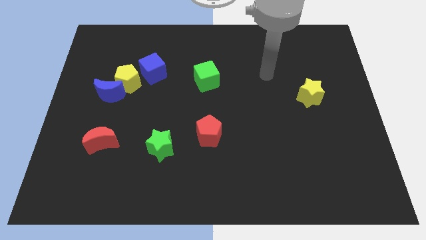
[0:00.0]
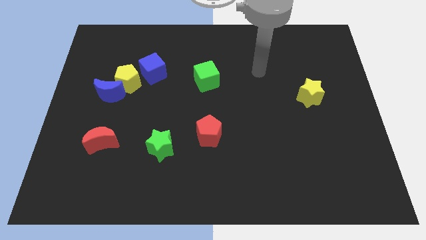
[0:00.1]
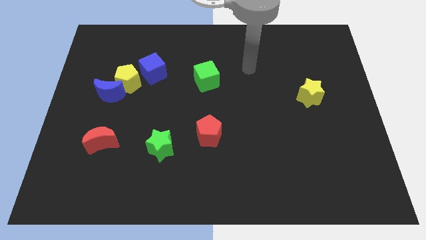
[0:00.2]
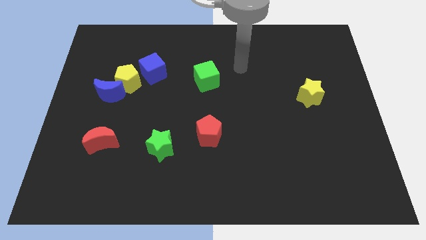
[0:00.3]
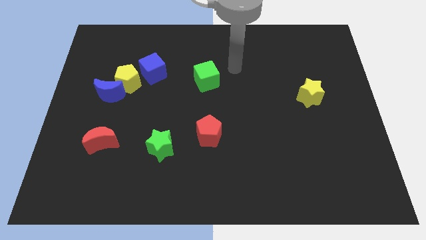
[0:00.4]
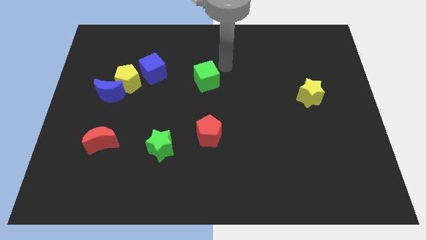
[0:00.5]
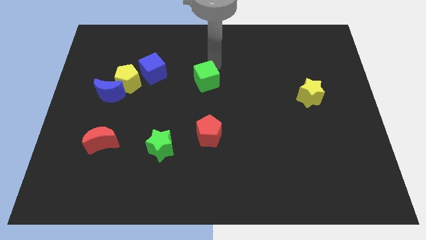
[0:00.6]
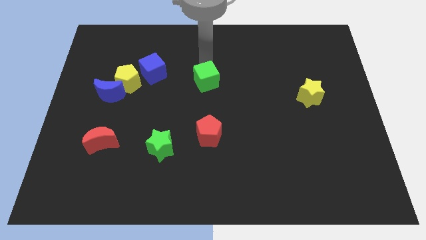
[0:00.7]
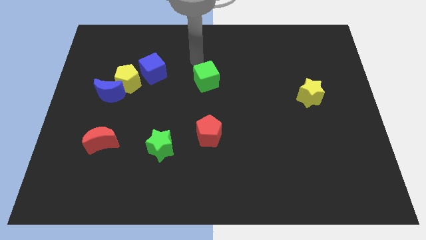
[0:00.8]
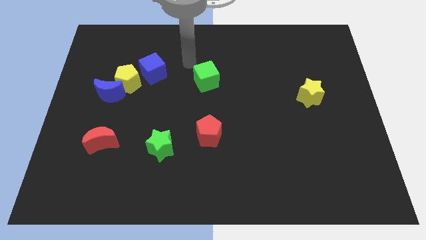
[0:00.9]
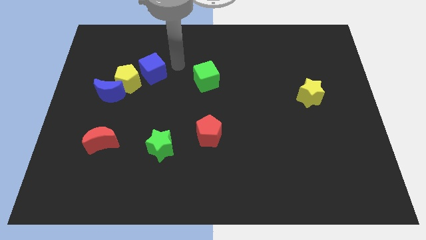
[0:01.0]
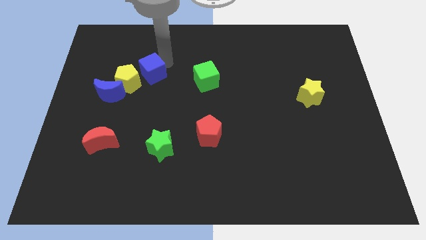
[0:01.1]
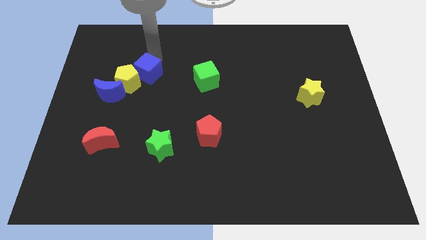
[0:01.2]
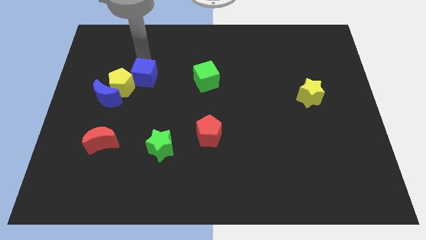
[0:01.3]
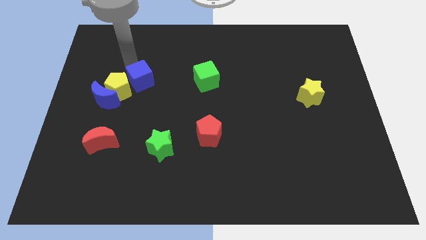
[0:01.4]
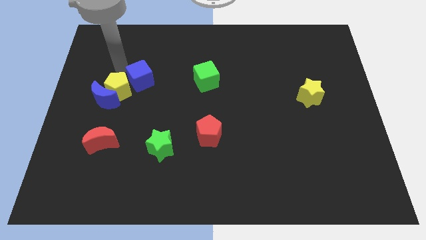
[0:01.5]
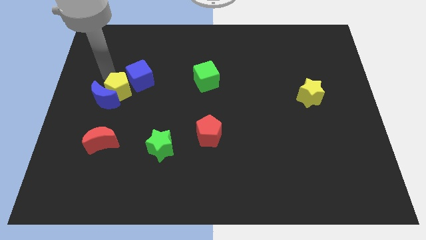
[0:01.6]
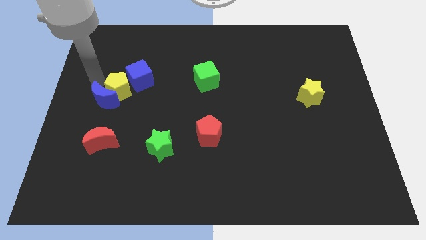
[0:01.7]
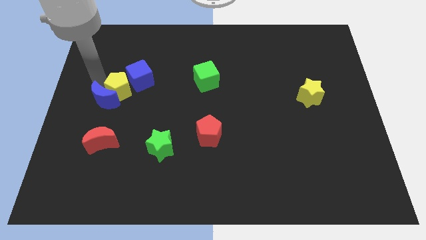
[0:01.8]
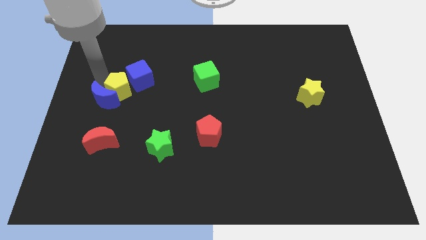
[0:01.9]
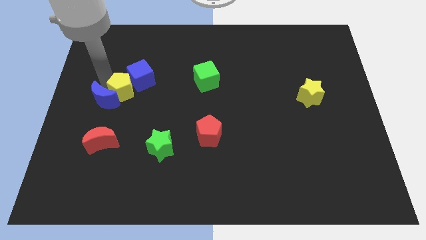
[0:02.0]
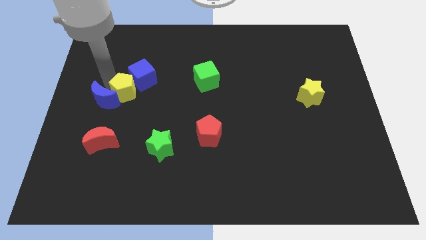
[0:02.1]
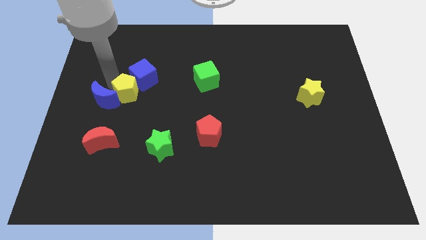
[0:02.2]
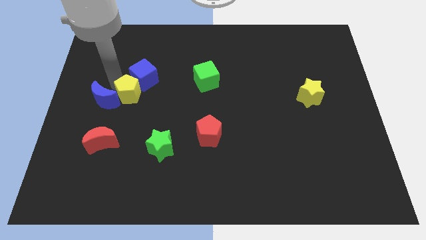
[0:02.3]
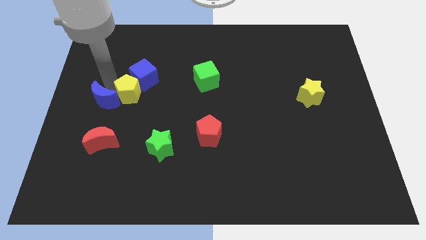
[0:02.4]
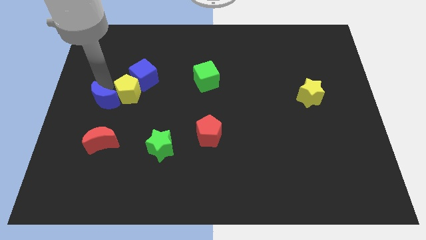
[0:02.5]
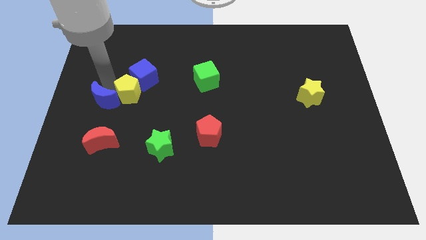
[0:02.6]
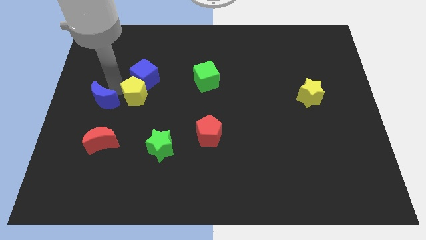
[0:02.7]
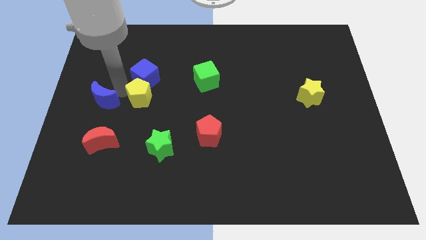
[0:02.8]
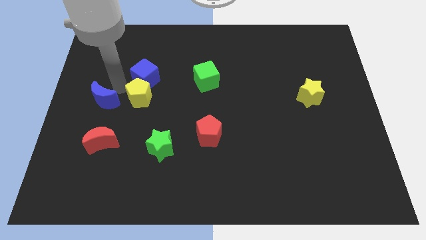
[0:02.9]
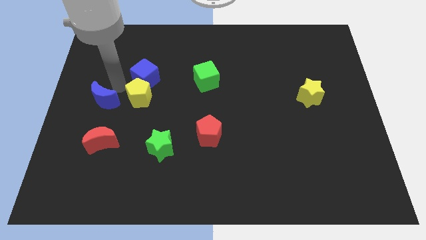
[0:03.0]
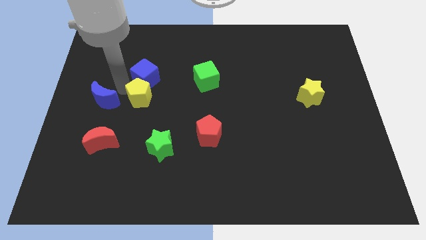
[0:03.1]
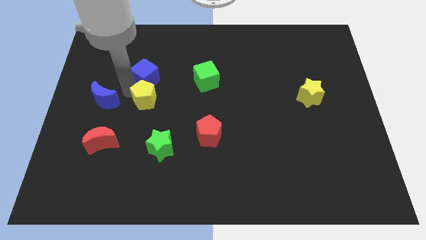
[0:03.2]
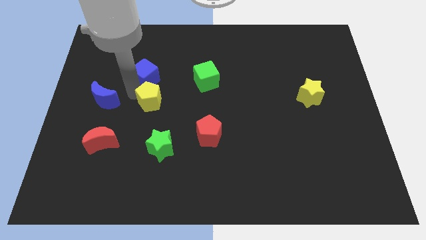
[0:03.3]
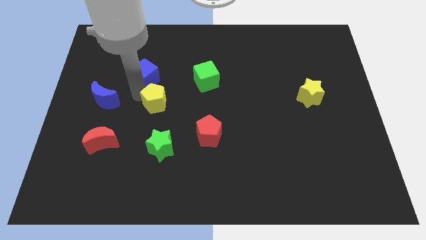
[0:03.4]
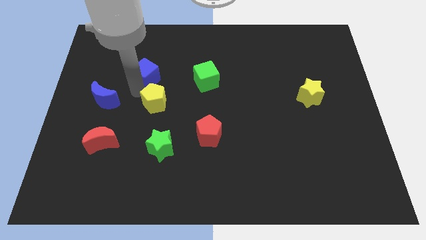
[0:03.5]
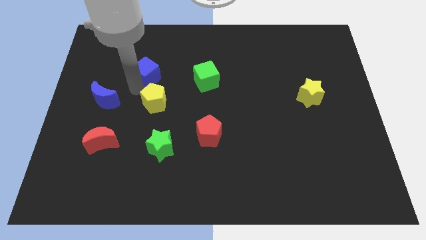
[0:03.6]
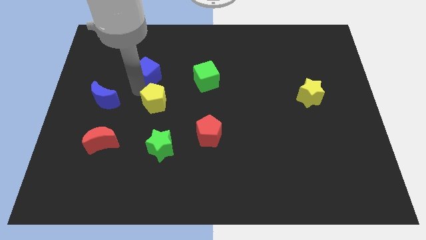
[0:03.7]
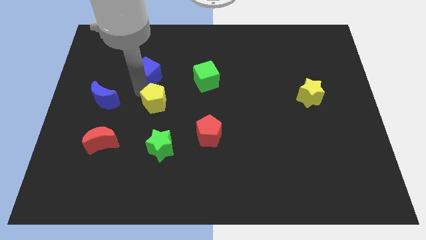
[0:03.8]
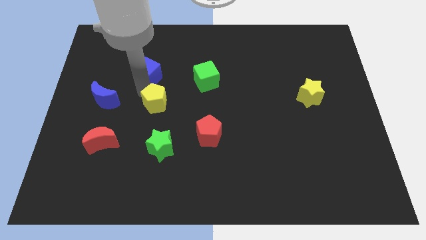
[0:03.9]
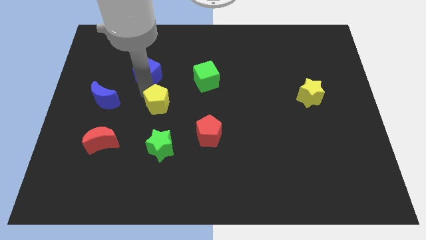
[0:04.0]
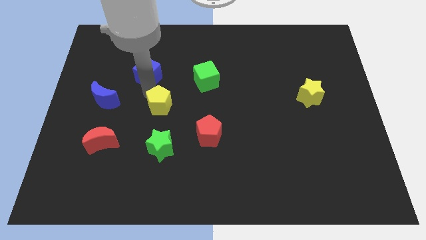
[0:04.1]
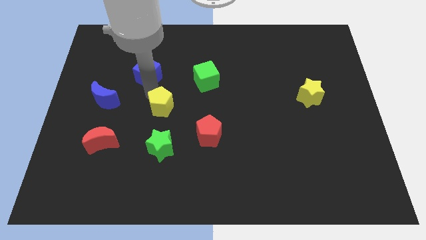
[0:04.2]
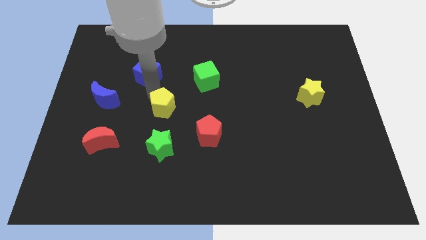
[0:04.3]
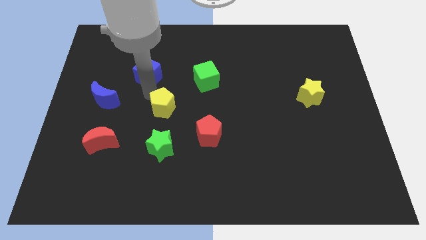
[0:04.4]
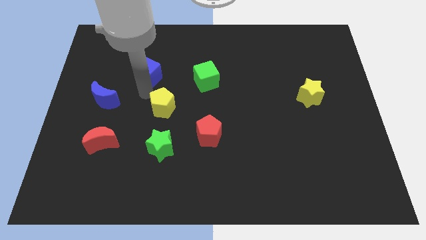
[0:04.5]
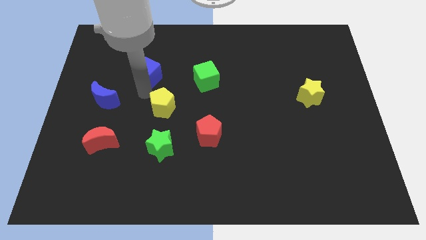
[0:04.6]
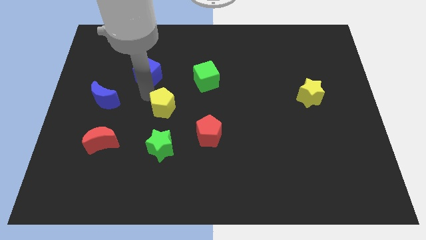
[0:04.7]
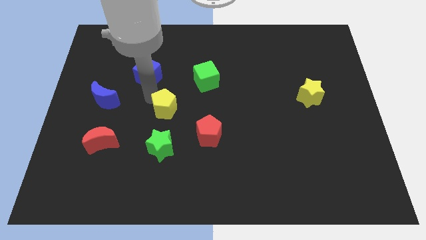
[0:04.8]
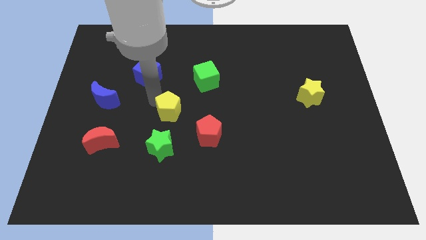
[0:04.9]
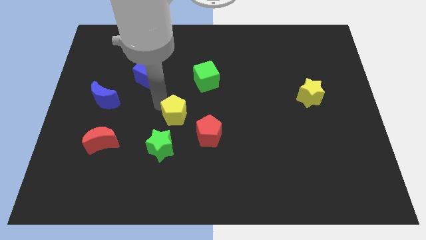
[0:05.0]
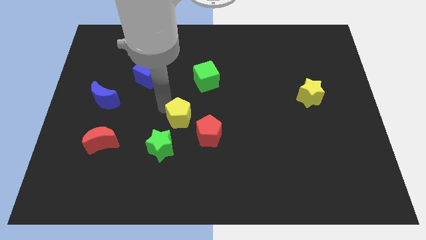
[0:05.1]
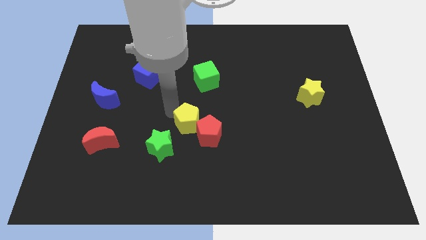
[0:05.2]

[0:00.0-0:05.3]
slide the yellow pentagon close to the red pentagon

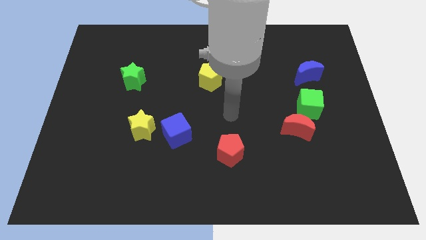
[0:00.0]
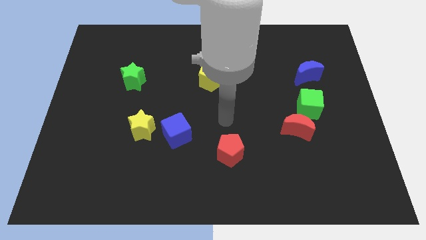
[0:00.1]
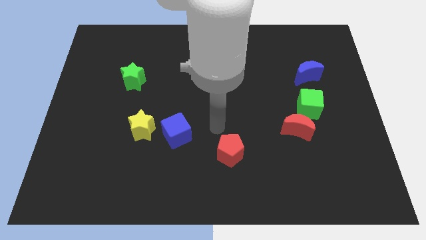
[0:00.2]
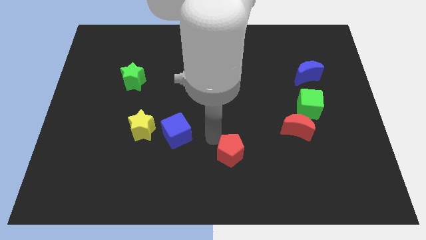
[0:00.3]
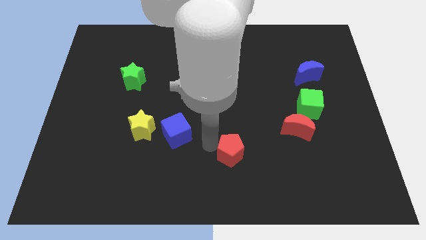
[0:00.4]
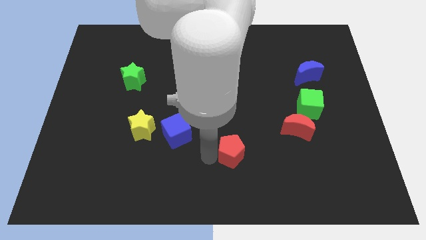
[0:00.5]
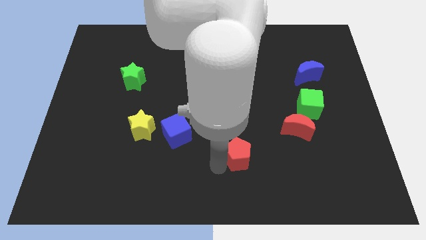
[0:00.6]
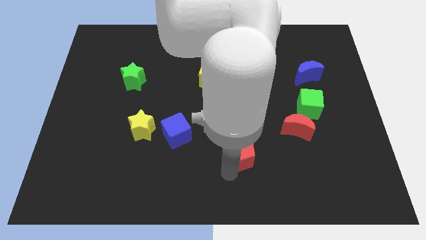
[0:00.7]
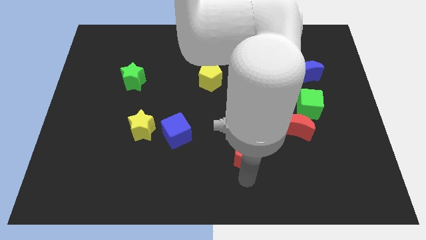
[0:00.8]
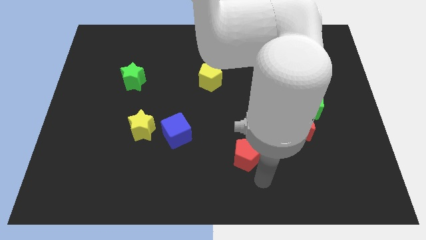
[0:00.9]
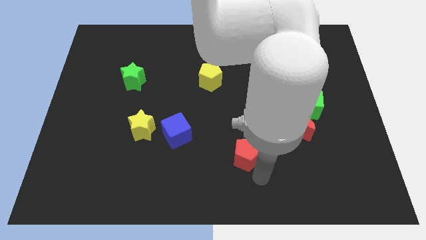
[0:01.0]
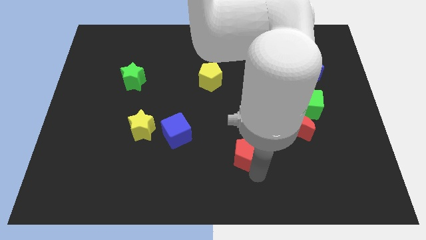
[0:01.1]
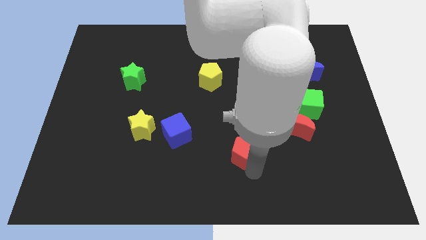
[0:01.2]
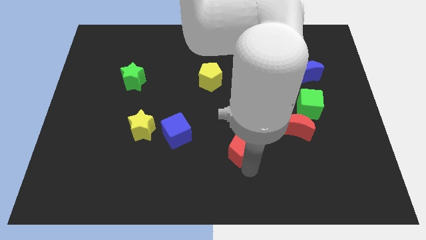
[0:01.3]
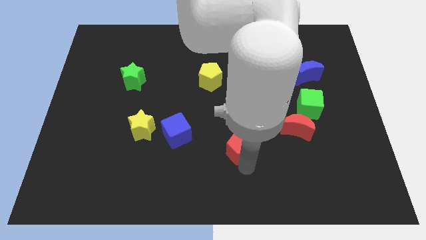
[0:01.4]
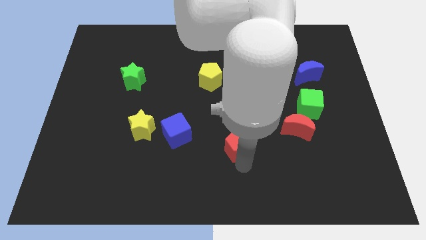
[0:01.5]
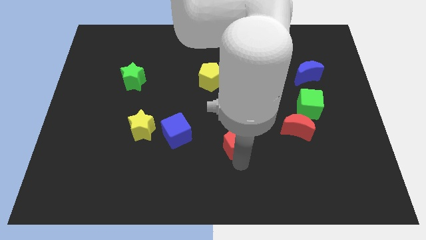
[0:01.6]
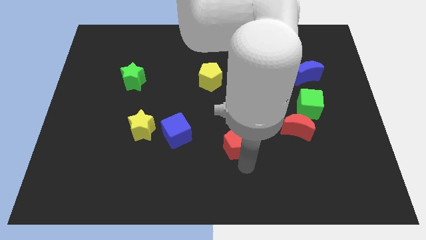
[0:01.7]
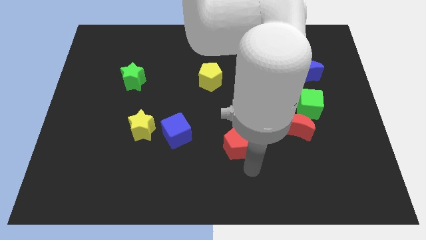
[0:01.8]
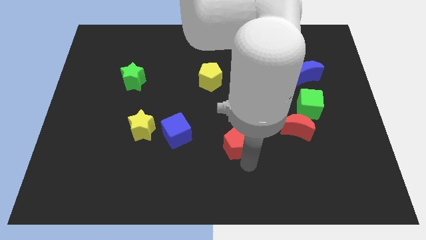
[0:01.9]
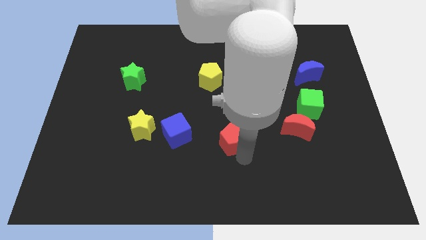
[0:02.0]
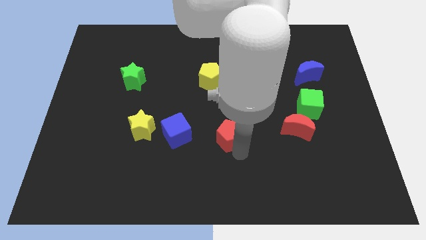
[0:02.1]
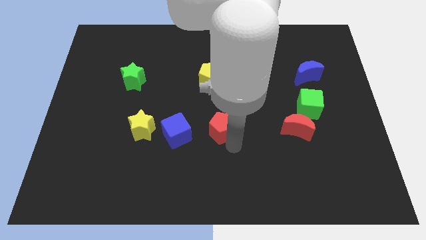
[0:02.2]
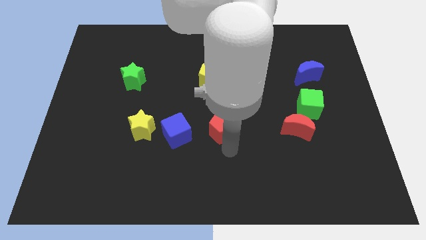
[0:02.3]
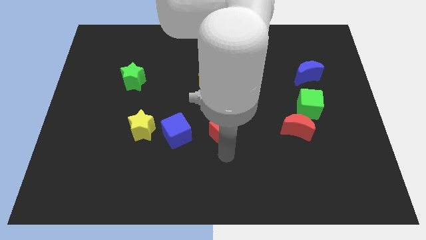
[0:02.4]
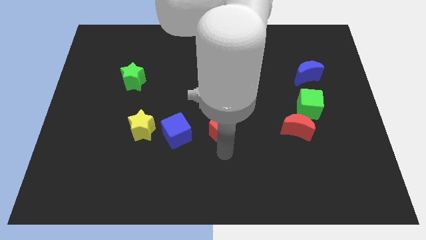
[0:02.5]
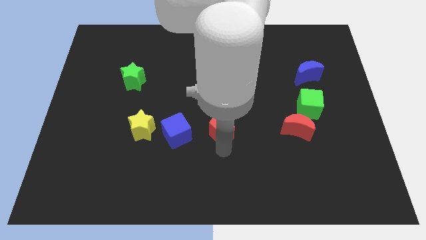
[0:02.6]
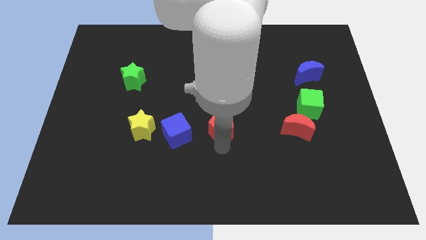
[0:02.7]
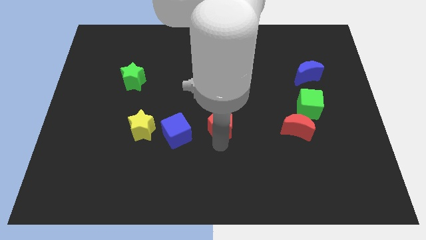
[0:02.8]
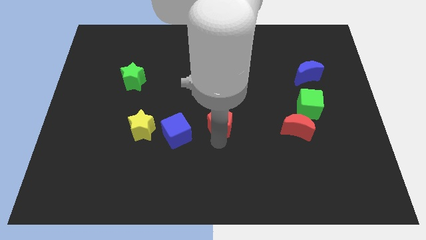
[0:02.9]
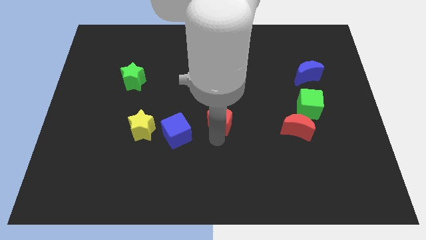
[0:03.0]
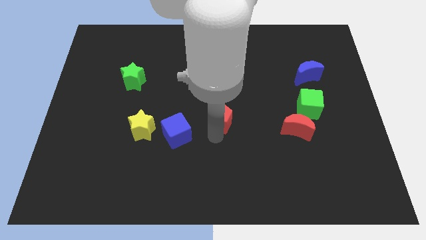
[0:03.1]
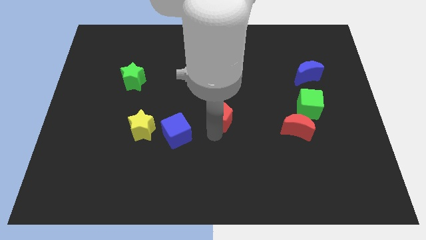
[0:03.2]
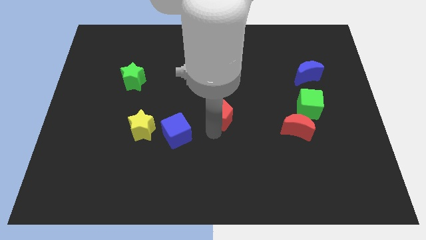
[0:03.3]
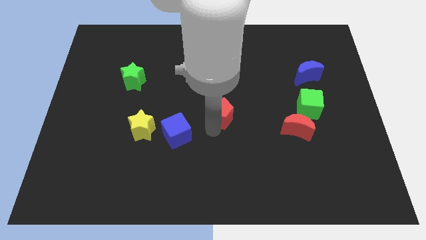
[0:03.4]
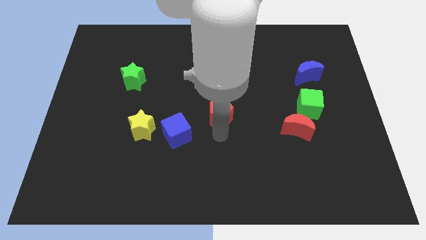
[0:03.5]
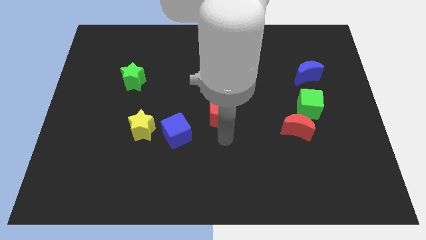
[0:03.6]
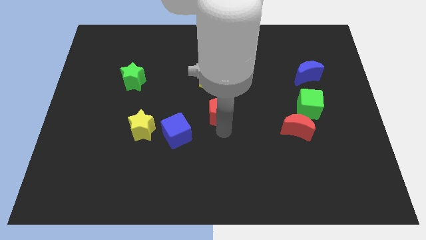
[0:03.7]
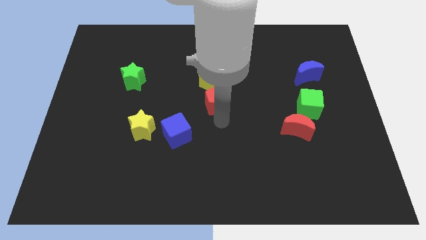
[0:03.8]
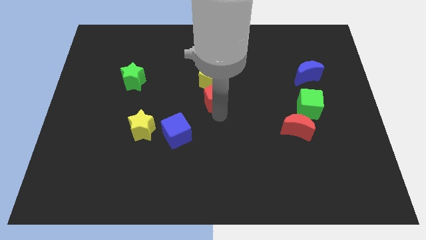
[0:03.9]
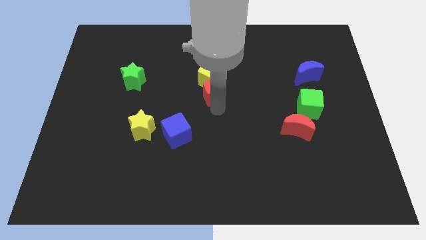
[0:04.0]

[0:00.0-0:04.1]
push the red pentagon next to the yellow pentagon
